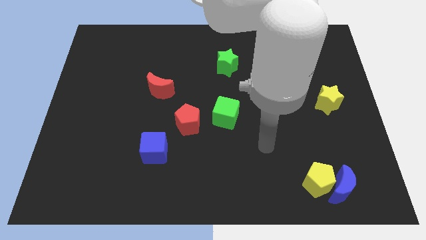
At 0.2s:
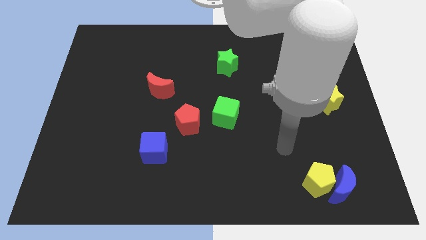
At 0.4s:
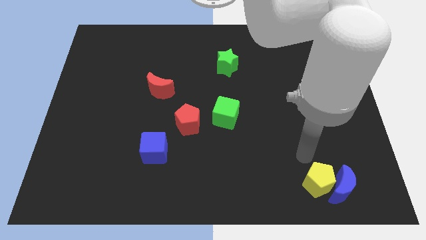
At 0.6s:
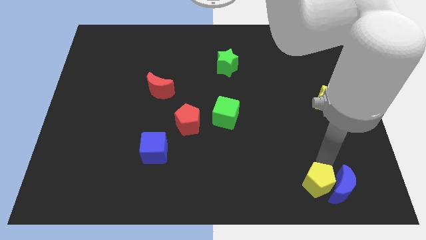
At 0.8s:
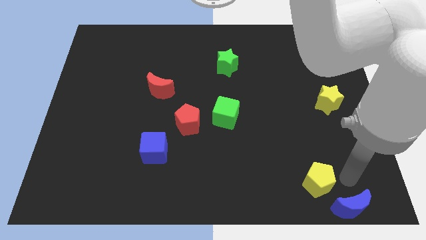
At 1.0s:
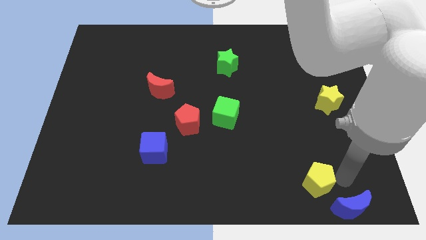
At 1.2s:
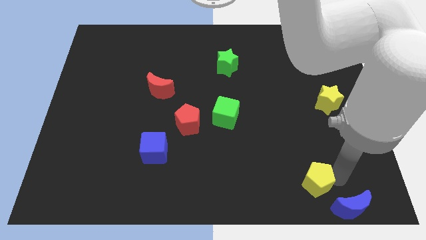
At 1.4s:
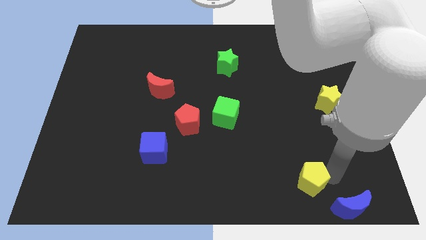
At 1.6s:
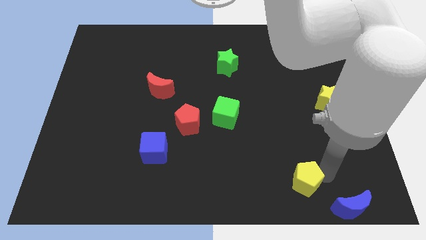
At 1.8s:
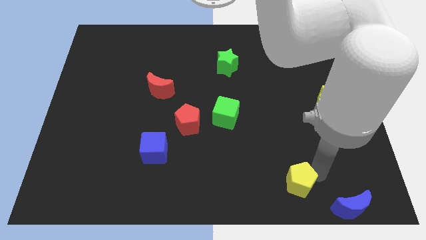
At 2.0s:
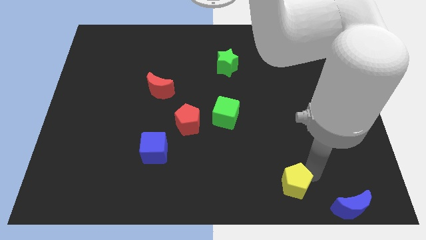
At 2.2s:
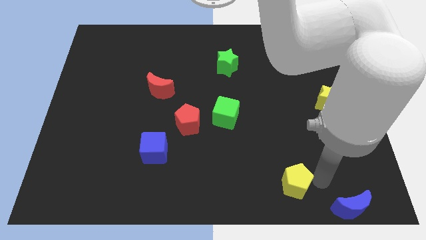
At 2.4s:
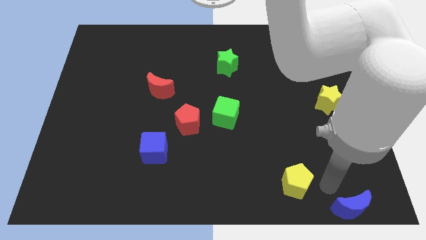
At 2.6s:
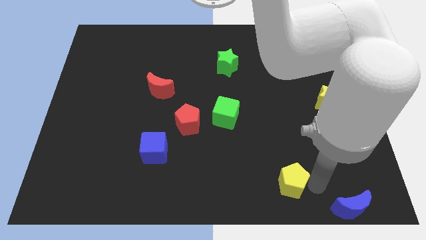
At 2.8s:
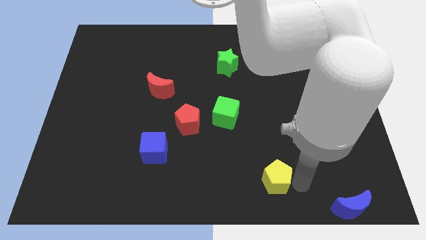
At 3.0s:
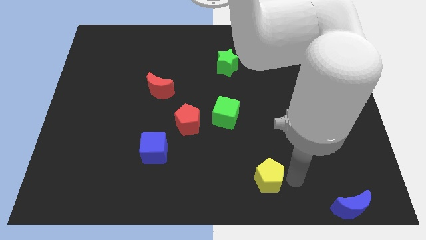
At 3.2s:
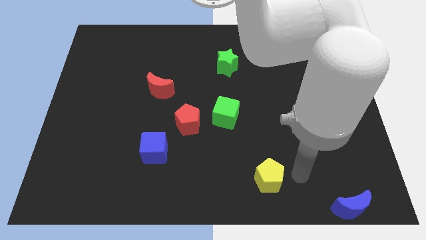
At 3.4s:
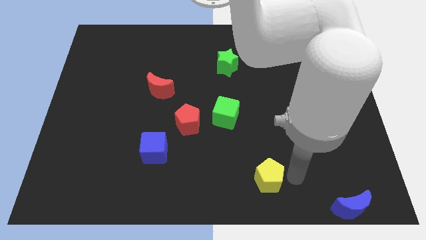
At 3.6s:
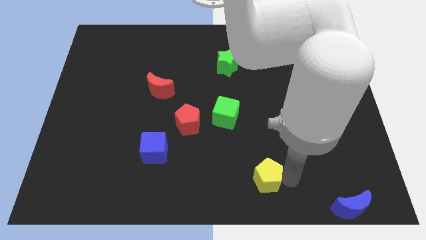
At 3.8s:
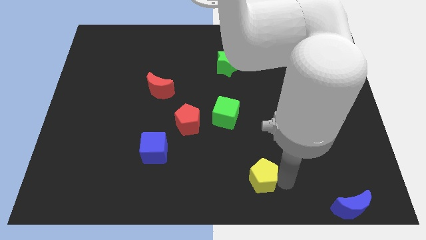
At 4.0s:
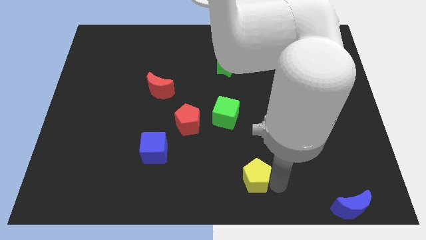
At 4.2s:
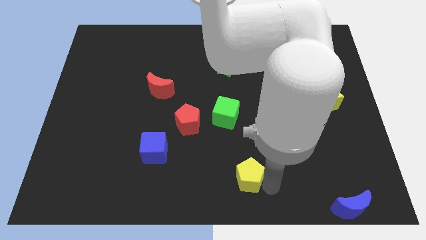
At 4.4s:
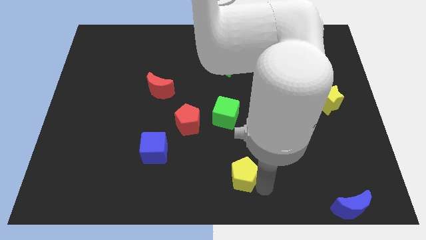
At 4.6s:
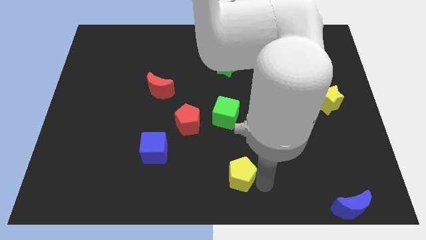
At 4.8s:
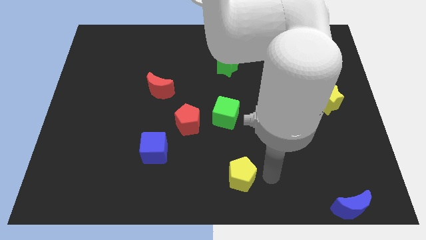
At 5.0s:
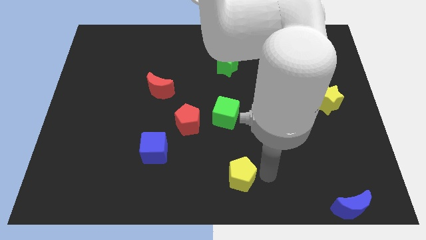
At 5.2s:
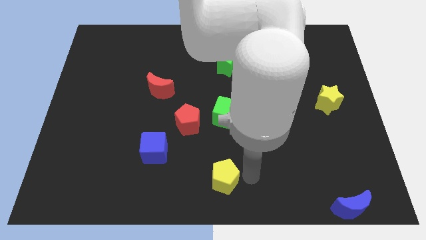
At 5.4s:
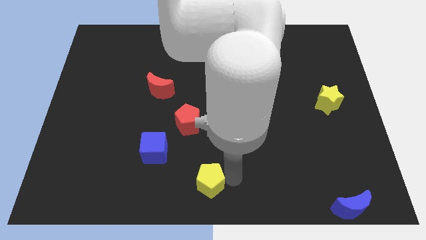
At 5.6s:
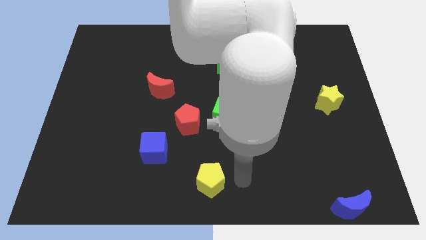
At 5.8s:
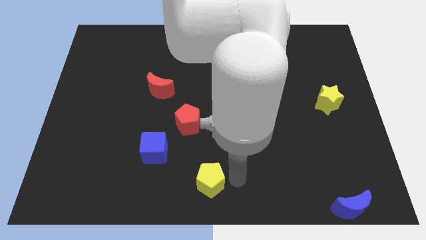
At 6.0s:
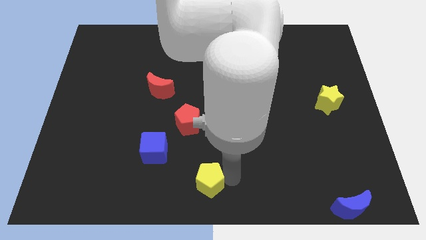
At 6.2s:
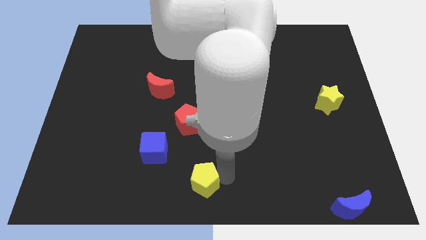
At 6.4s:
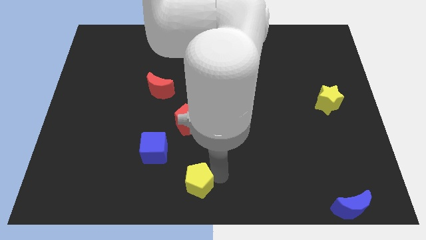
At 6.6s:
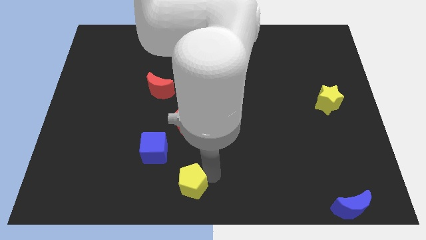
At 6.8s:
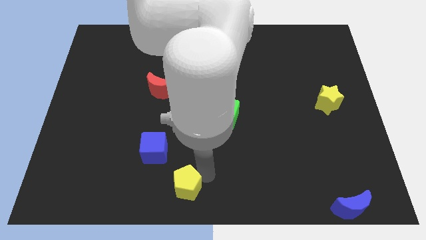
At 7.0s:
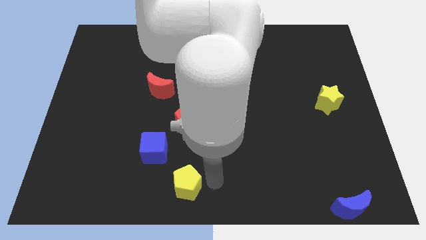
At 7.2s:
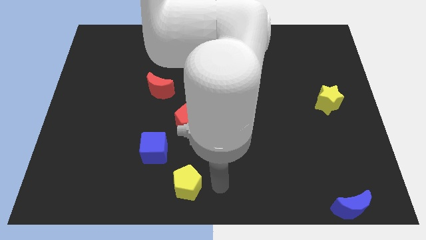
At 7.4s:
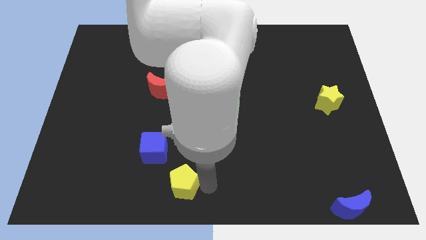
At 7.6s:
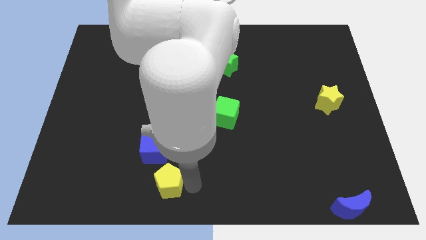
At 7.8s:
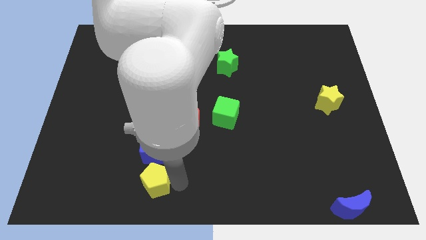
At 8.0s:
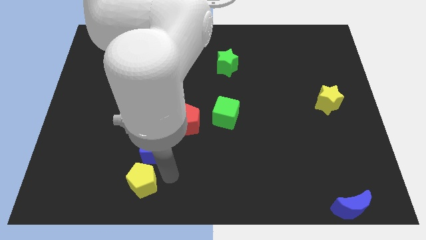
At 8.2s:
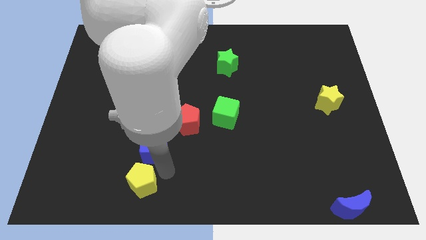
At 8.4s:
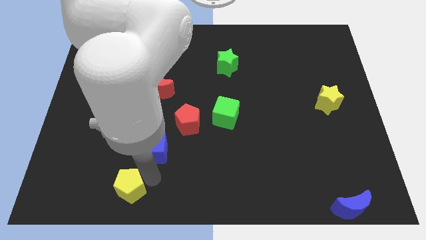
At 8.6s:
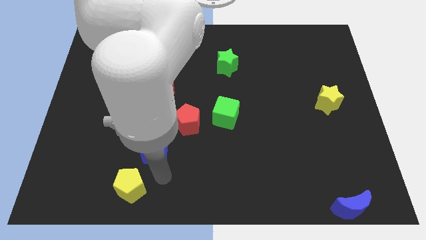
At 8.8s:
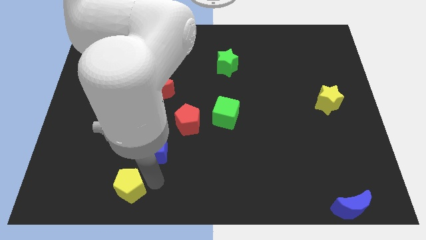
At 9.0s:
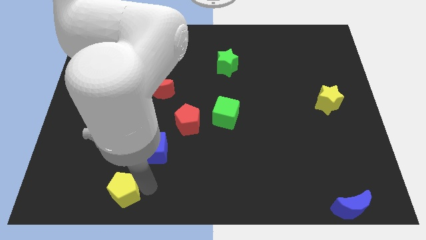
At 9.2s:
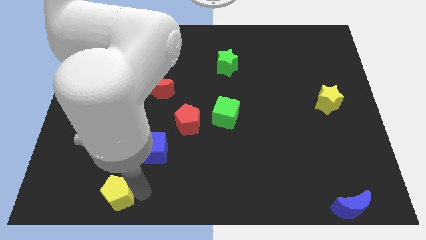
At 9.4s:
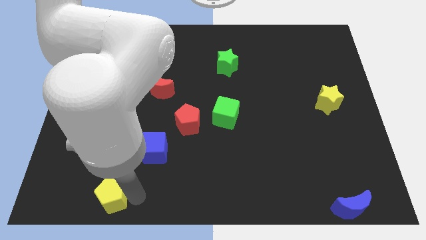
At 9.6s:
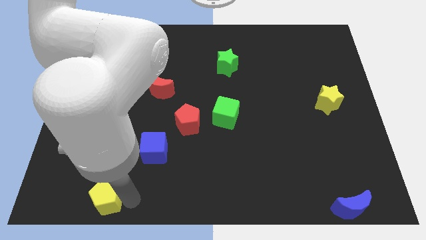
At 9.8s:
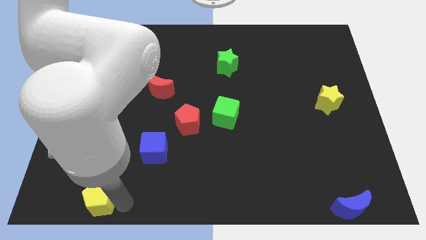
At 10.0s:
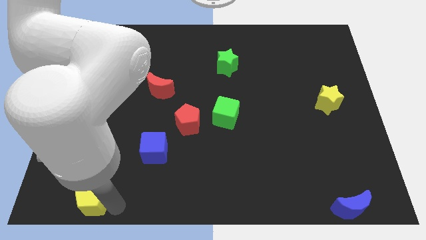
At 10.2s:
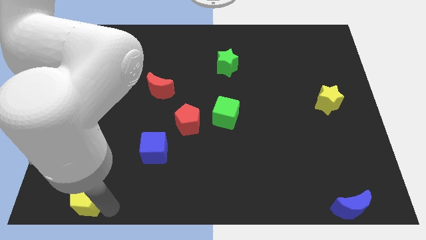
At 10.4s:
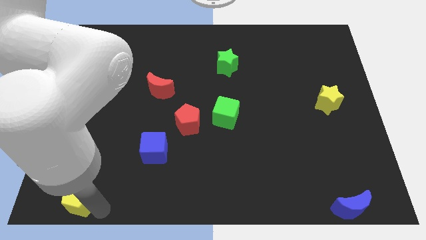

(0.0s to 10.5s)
slide the yellow pentagon to the bottom left corner
